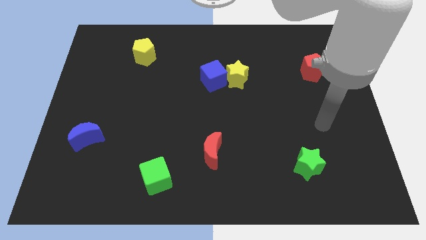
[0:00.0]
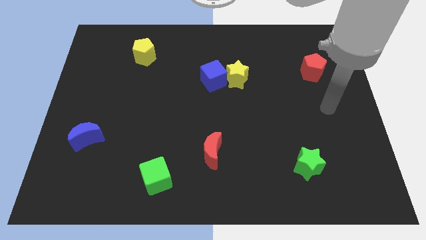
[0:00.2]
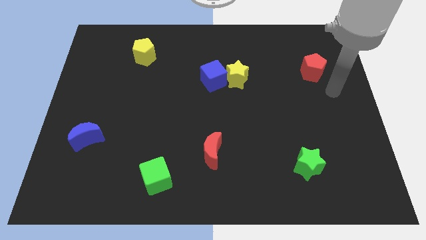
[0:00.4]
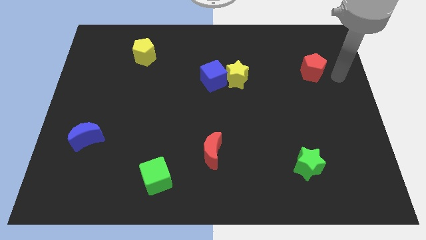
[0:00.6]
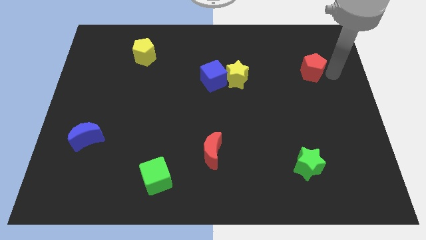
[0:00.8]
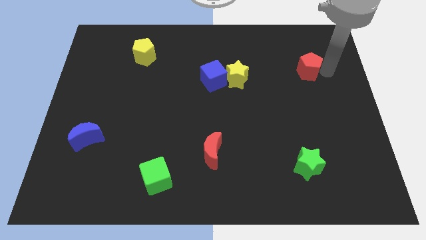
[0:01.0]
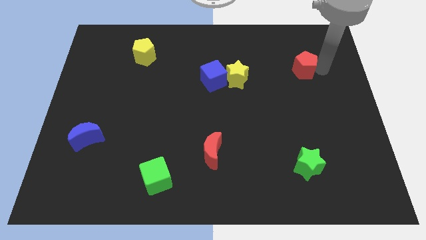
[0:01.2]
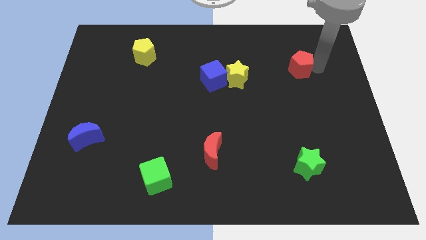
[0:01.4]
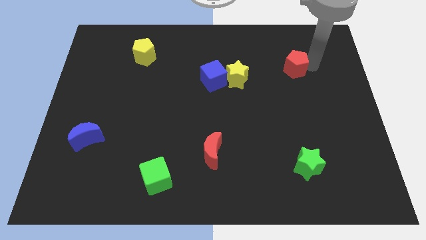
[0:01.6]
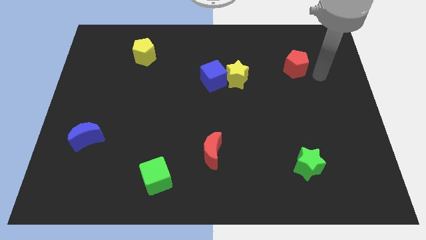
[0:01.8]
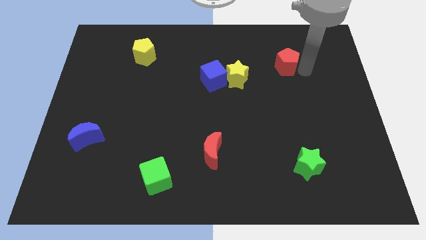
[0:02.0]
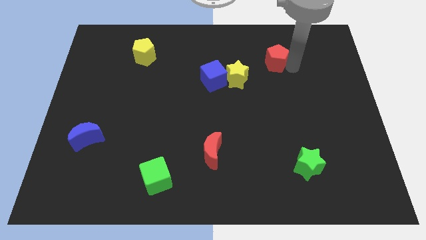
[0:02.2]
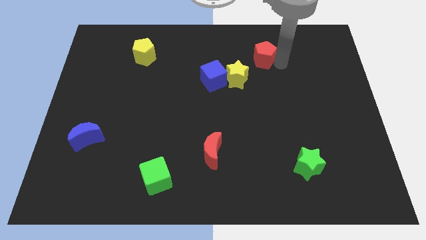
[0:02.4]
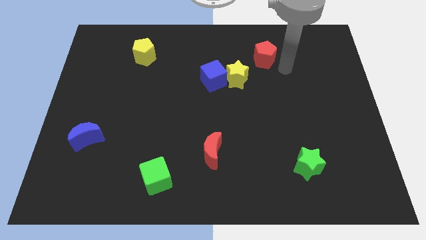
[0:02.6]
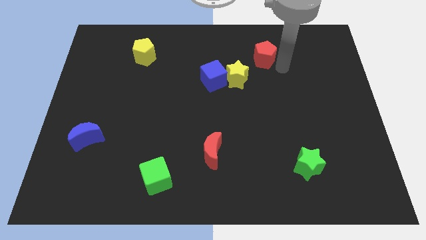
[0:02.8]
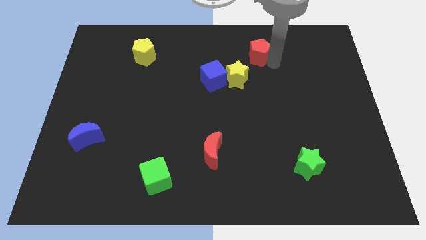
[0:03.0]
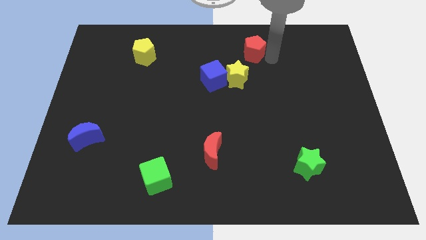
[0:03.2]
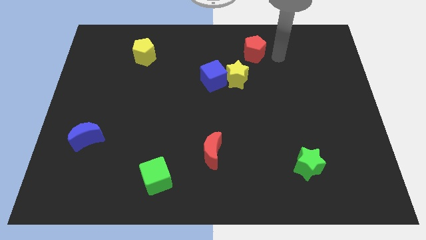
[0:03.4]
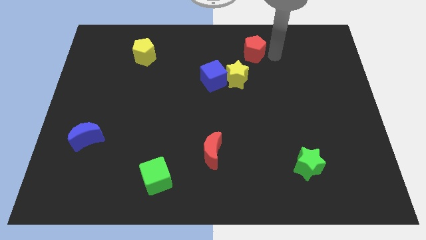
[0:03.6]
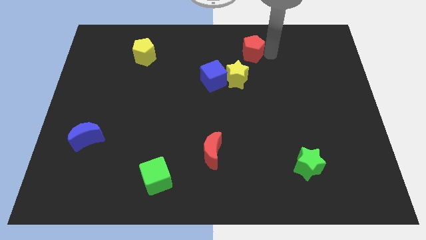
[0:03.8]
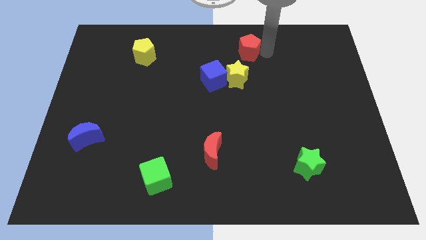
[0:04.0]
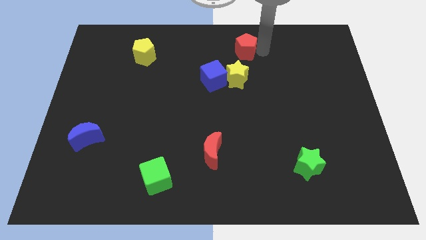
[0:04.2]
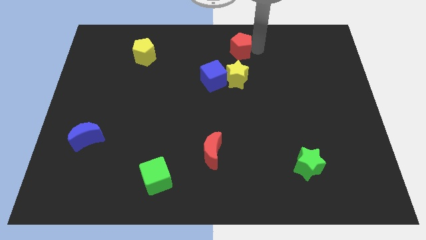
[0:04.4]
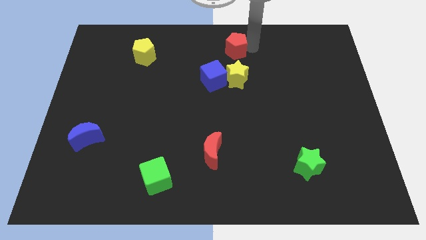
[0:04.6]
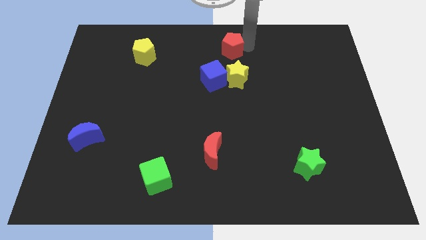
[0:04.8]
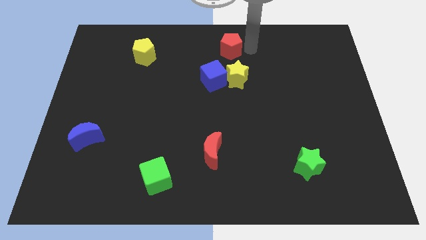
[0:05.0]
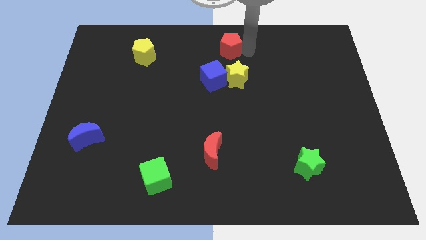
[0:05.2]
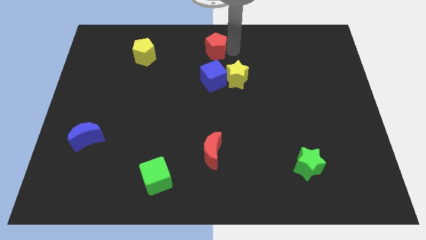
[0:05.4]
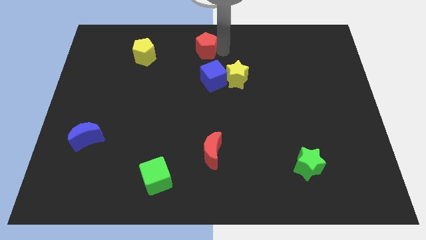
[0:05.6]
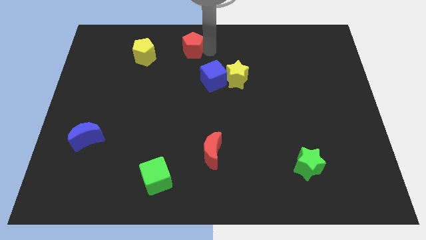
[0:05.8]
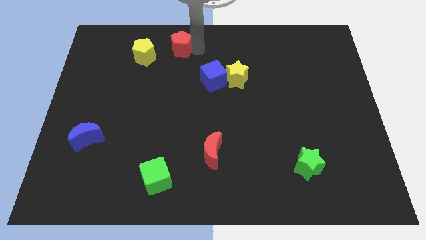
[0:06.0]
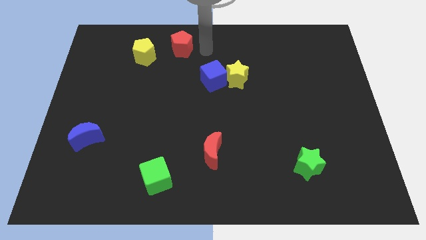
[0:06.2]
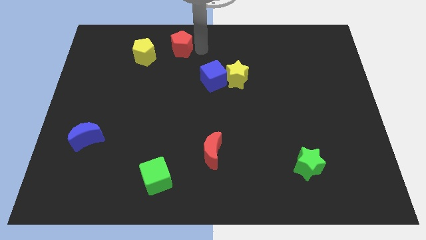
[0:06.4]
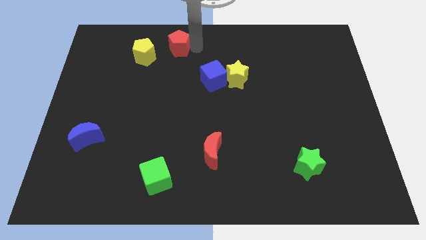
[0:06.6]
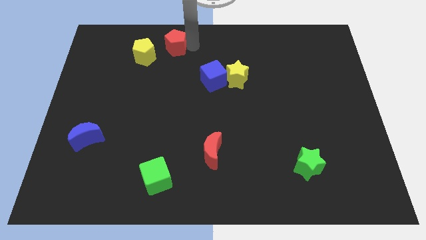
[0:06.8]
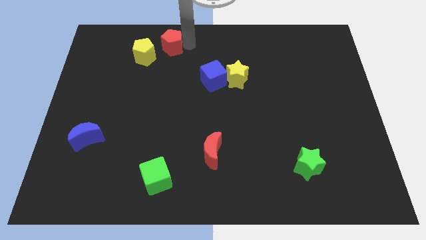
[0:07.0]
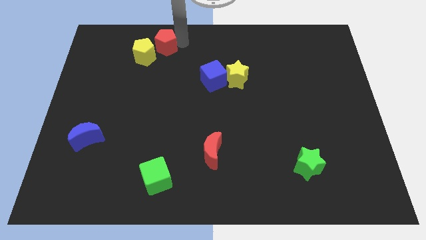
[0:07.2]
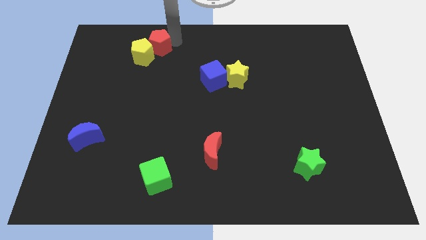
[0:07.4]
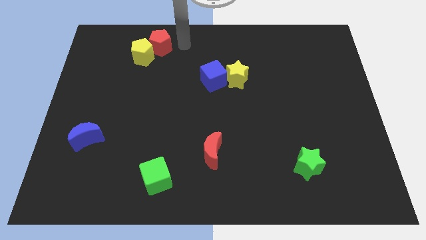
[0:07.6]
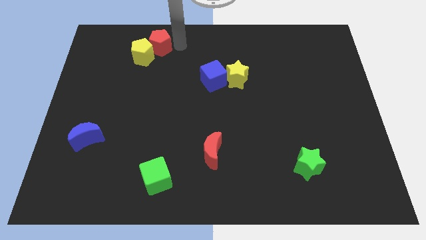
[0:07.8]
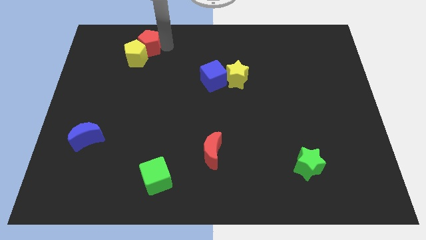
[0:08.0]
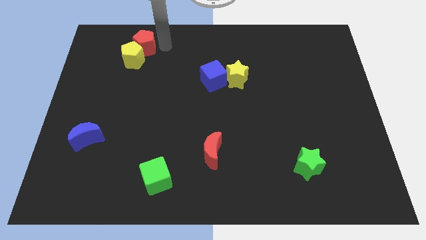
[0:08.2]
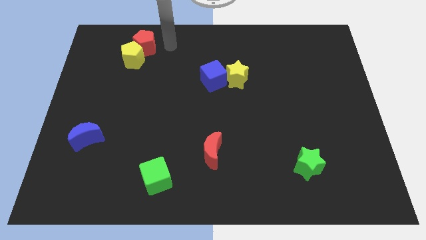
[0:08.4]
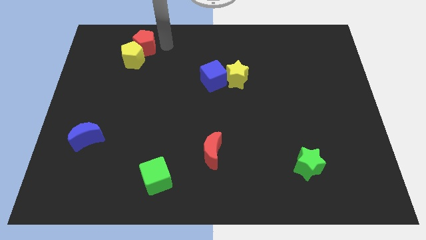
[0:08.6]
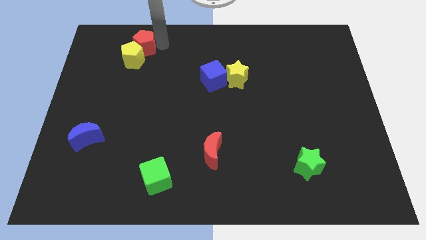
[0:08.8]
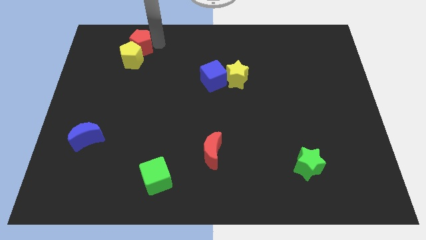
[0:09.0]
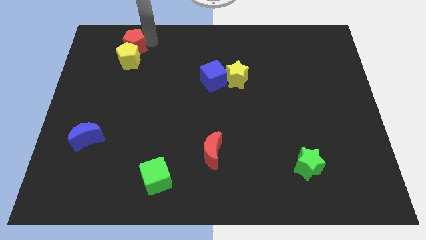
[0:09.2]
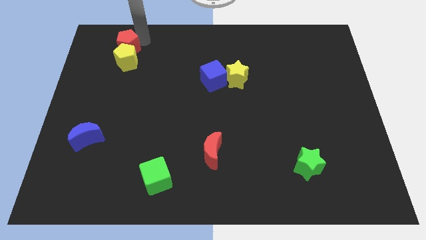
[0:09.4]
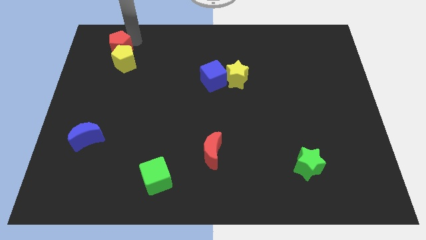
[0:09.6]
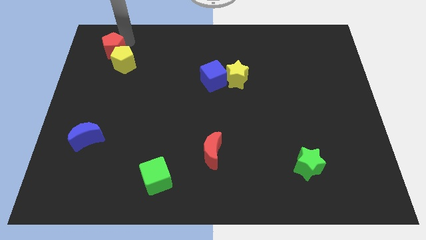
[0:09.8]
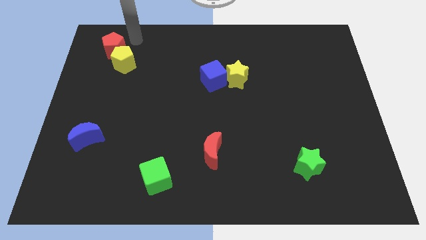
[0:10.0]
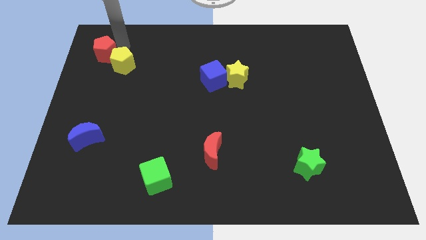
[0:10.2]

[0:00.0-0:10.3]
slide the red pentagon to the left of the yellow pentagon

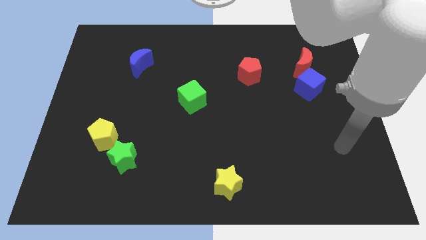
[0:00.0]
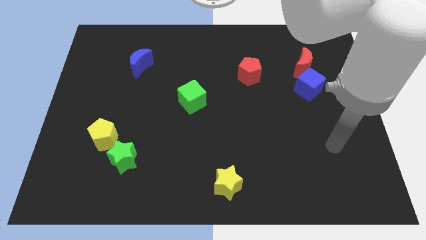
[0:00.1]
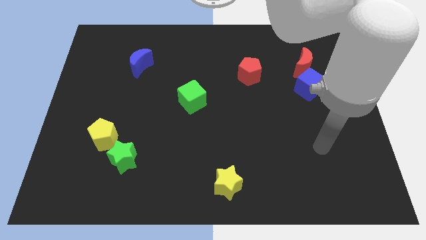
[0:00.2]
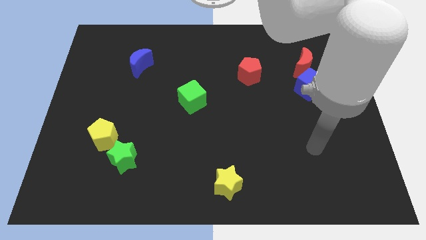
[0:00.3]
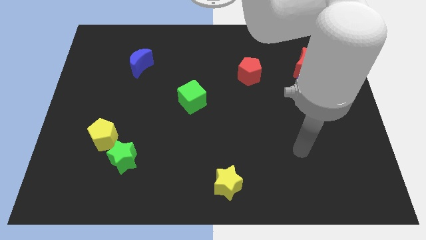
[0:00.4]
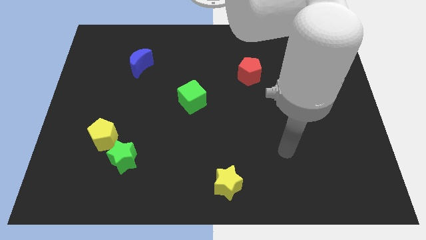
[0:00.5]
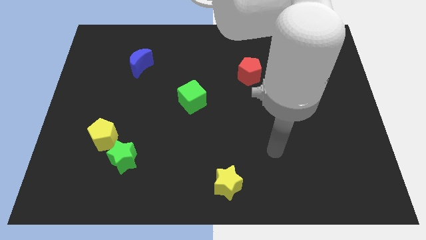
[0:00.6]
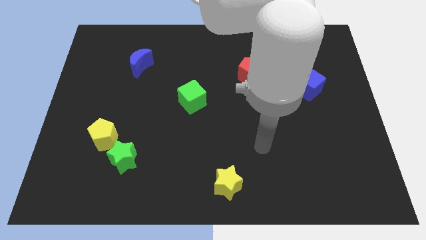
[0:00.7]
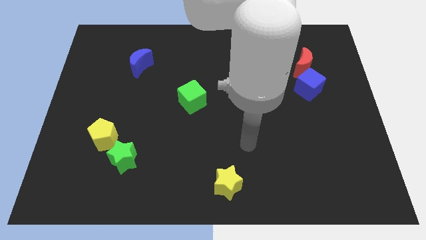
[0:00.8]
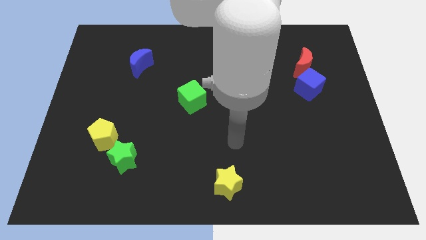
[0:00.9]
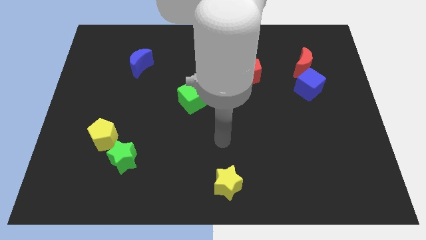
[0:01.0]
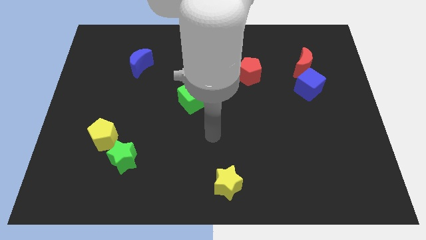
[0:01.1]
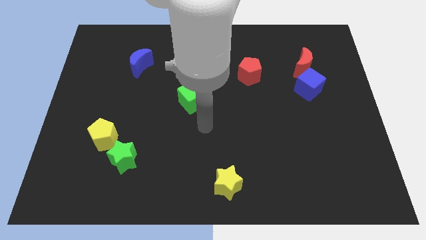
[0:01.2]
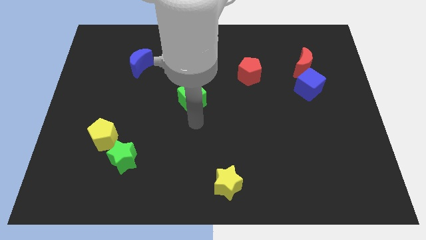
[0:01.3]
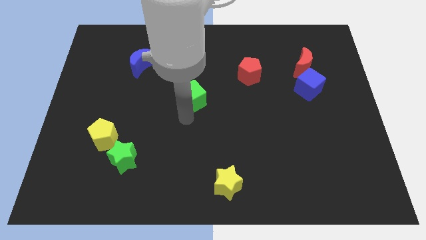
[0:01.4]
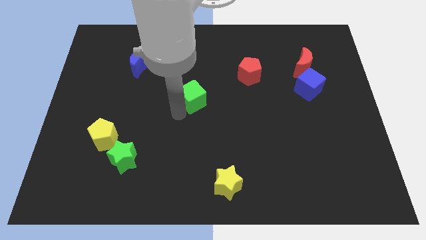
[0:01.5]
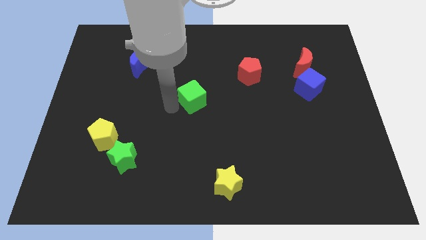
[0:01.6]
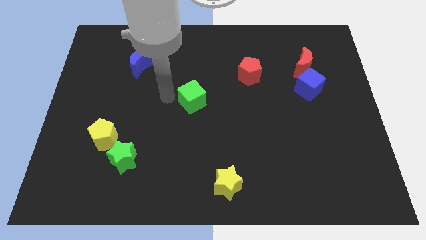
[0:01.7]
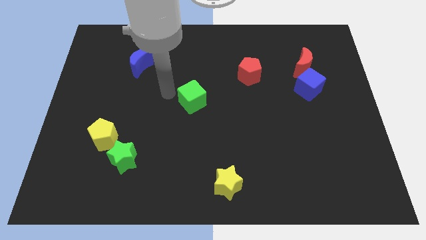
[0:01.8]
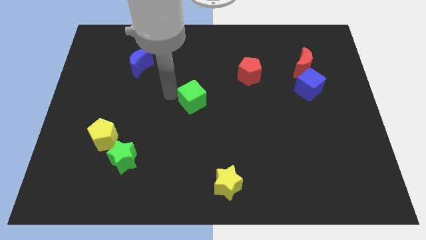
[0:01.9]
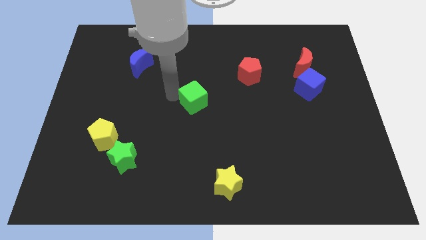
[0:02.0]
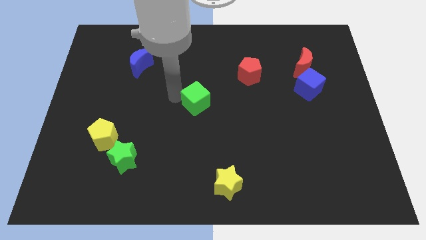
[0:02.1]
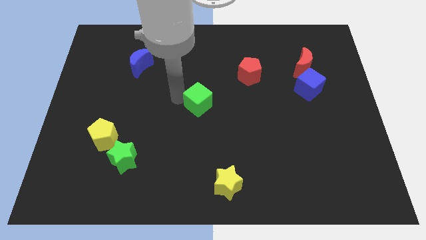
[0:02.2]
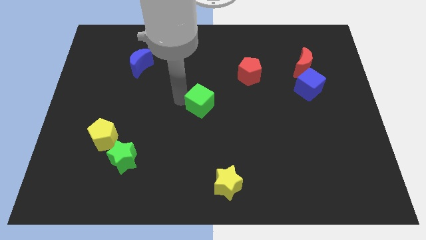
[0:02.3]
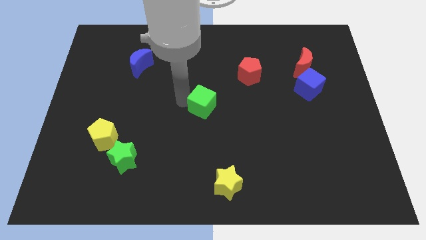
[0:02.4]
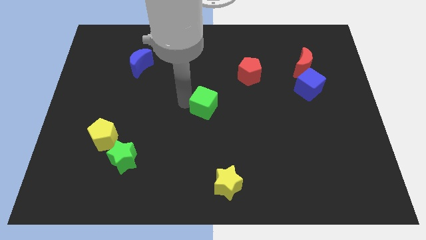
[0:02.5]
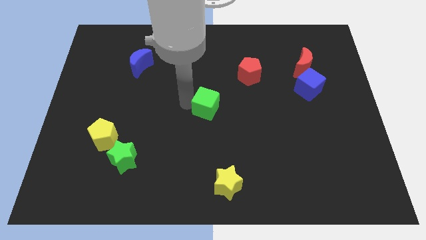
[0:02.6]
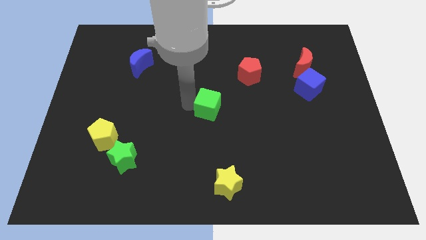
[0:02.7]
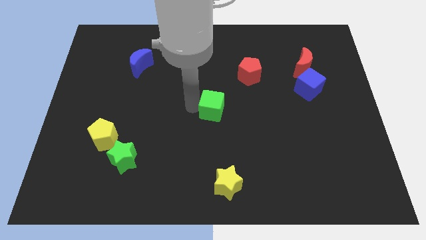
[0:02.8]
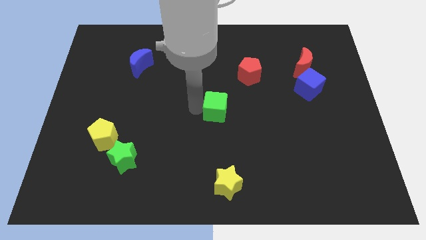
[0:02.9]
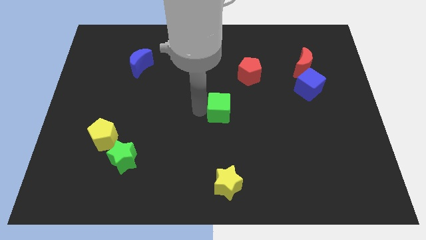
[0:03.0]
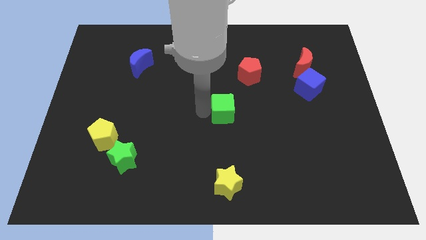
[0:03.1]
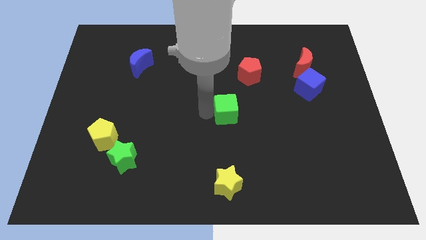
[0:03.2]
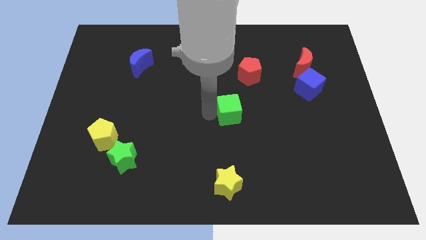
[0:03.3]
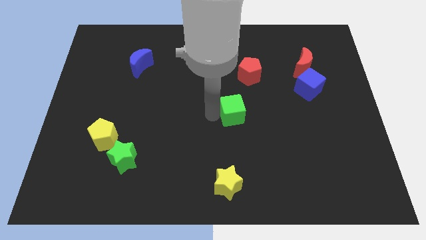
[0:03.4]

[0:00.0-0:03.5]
slide the green cube to the bottom of the red pentagon
